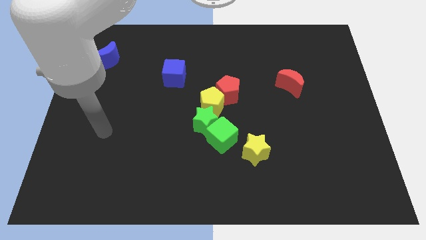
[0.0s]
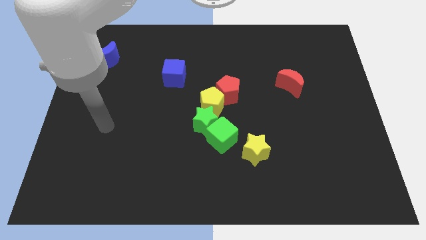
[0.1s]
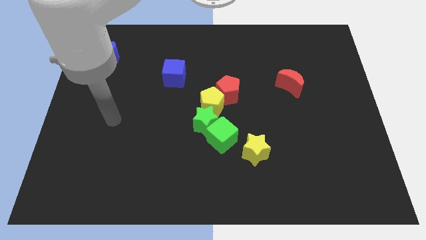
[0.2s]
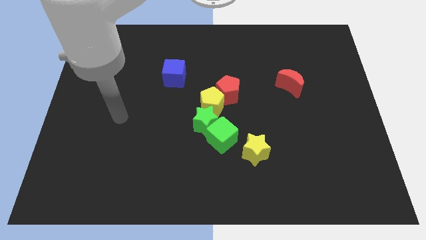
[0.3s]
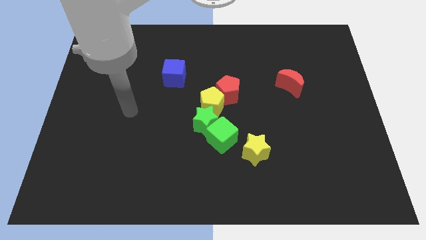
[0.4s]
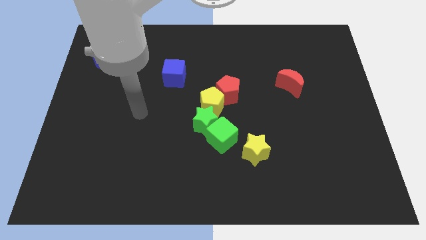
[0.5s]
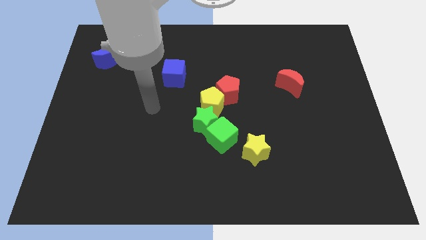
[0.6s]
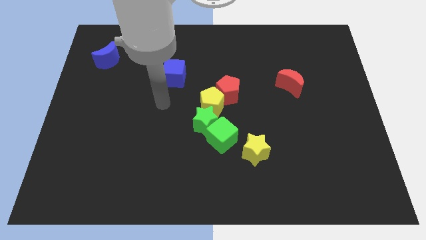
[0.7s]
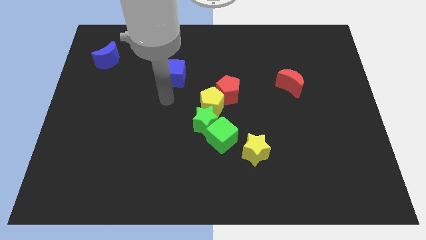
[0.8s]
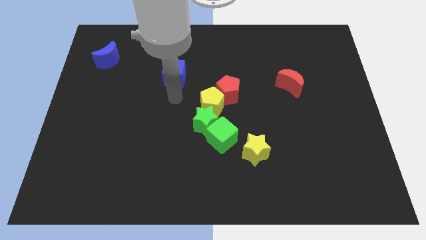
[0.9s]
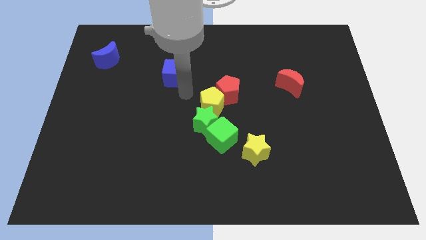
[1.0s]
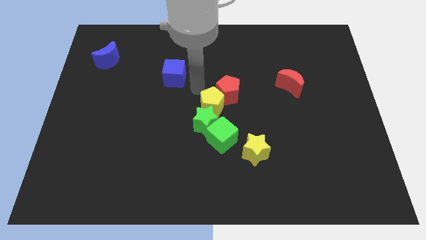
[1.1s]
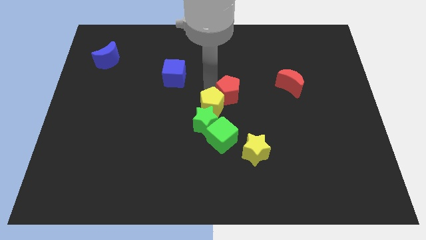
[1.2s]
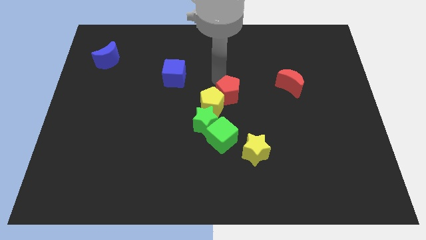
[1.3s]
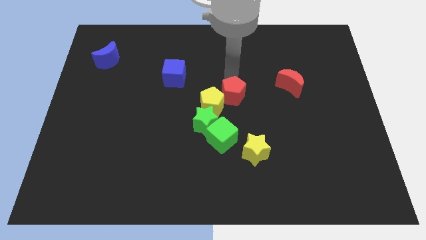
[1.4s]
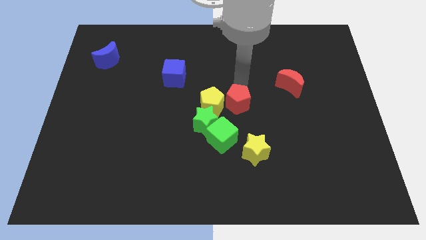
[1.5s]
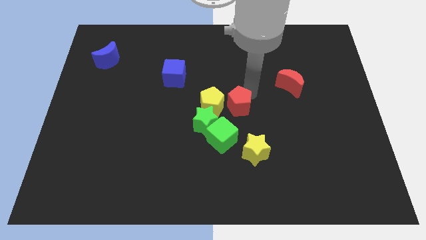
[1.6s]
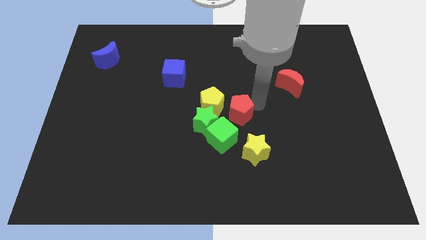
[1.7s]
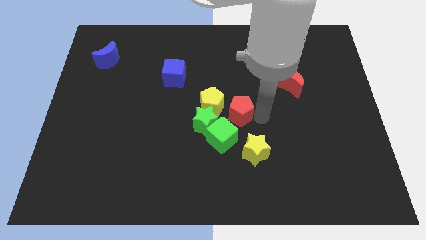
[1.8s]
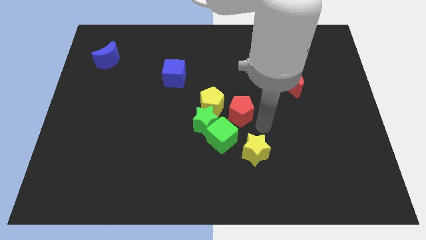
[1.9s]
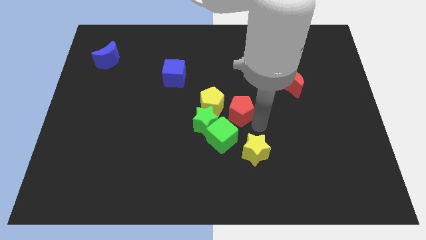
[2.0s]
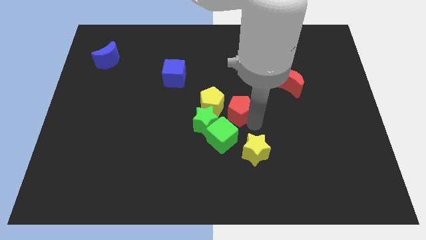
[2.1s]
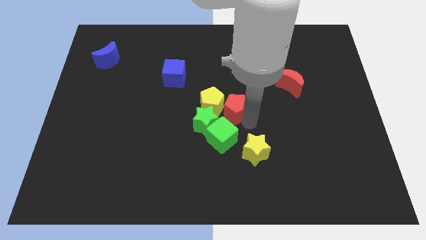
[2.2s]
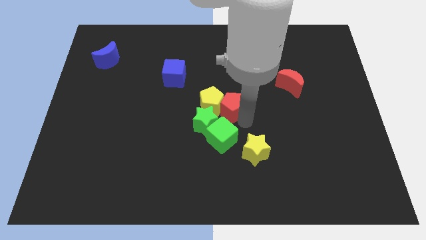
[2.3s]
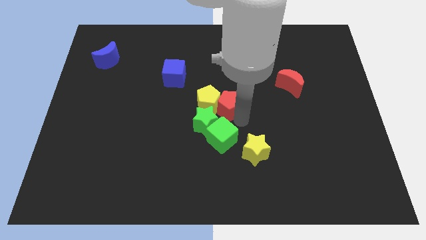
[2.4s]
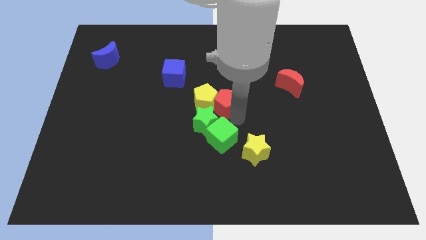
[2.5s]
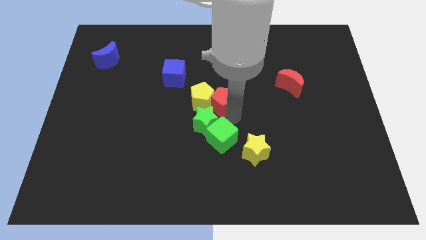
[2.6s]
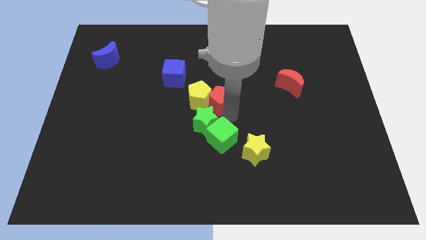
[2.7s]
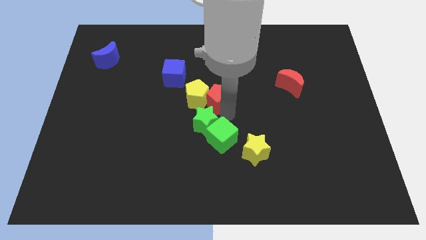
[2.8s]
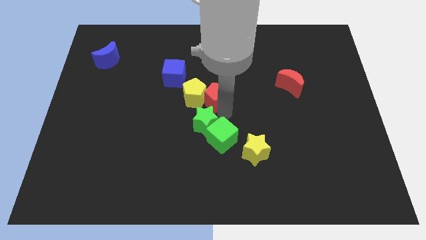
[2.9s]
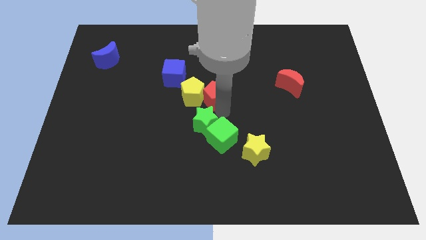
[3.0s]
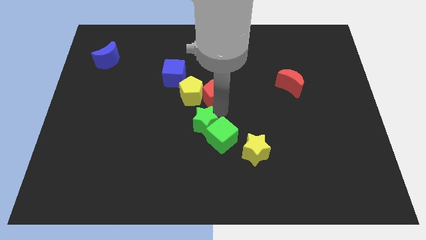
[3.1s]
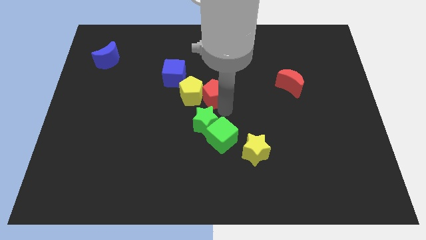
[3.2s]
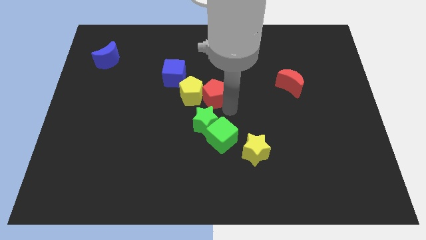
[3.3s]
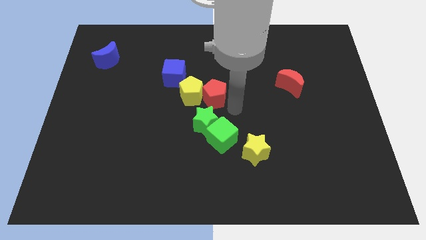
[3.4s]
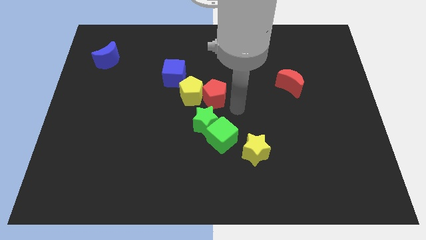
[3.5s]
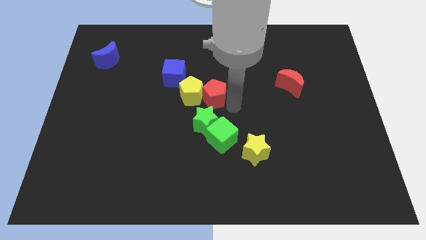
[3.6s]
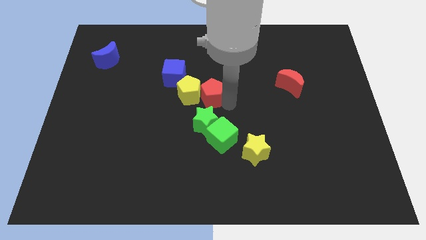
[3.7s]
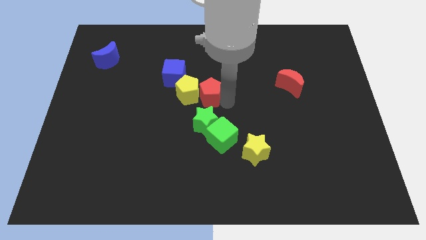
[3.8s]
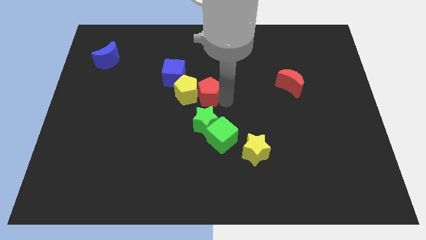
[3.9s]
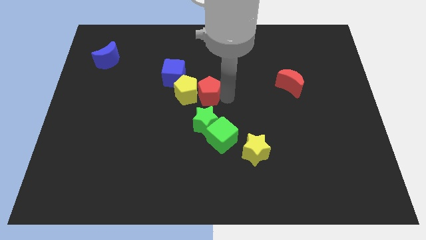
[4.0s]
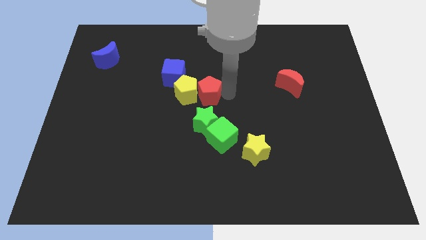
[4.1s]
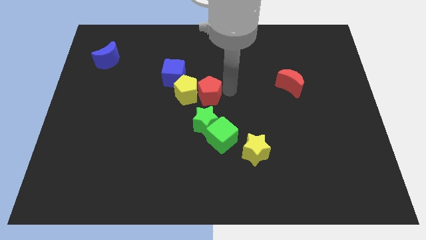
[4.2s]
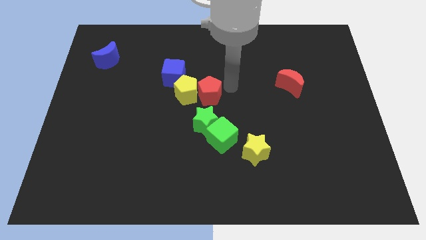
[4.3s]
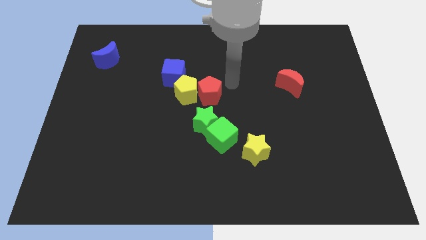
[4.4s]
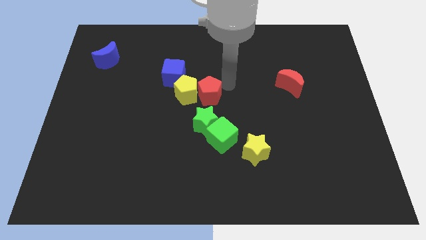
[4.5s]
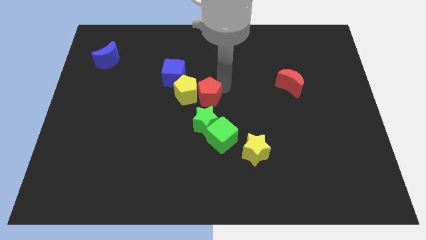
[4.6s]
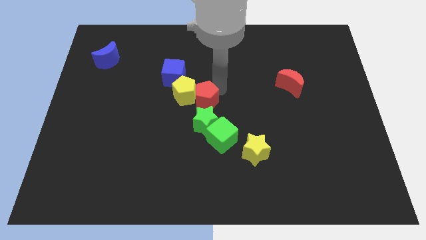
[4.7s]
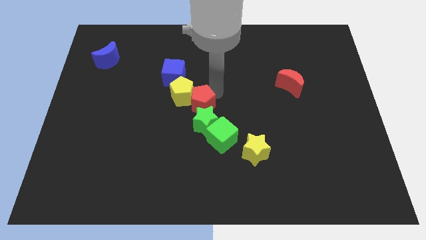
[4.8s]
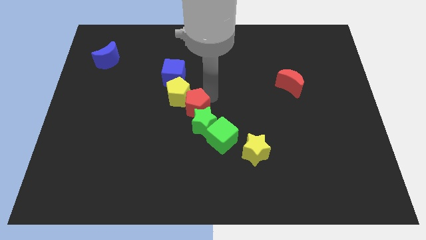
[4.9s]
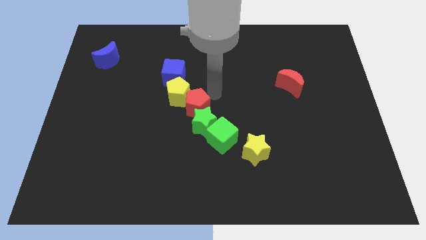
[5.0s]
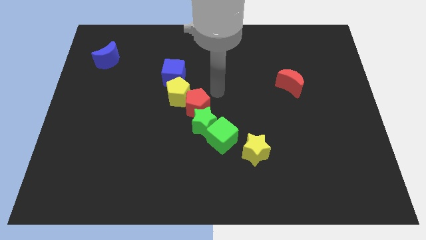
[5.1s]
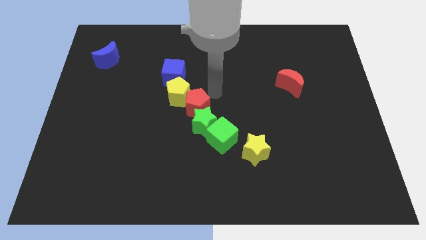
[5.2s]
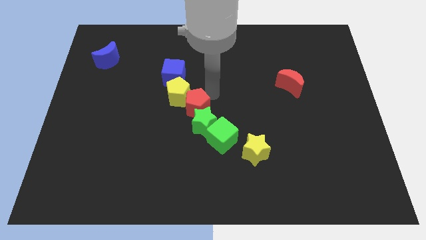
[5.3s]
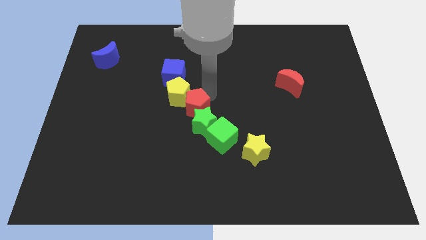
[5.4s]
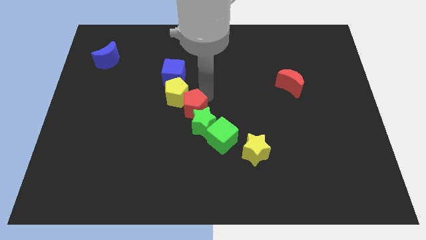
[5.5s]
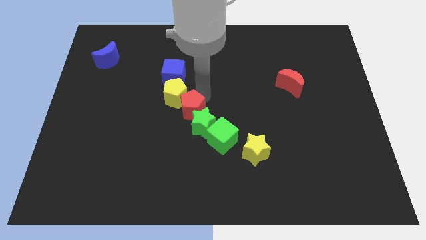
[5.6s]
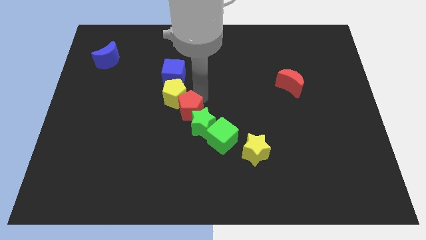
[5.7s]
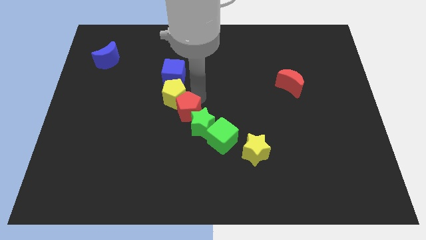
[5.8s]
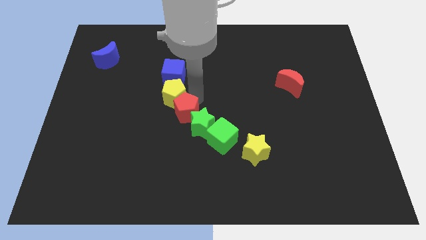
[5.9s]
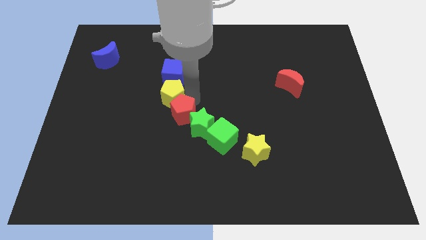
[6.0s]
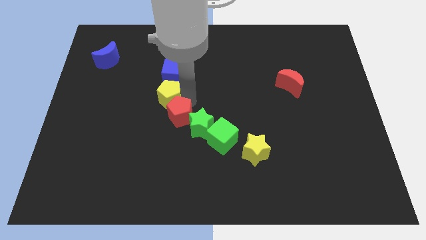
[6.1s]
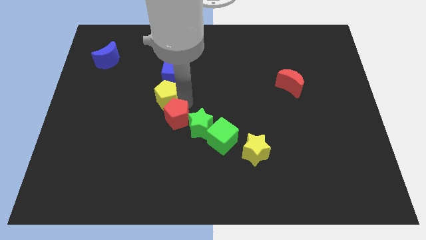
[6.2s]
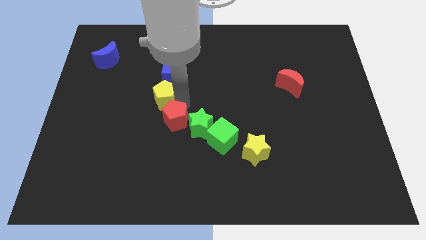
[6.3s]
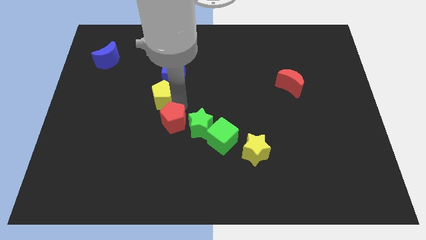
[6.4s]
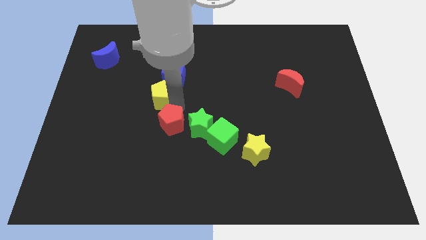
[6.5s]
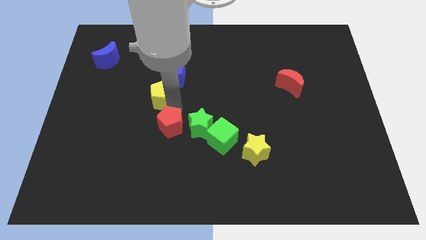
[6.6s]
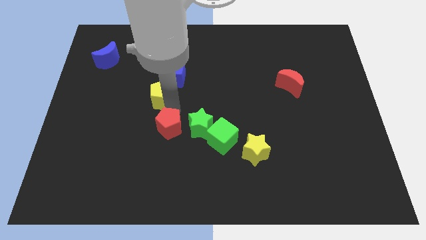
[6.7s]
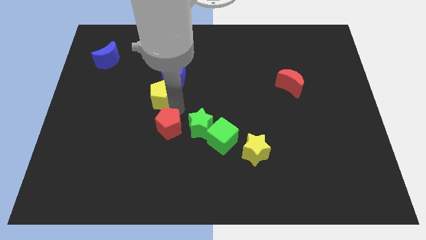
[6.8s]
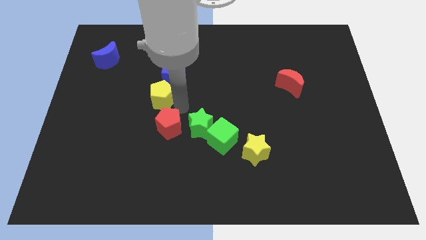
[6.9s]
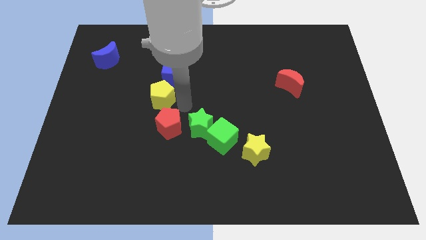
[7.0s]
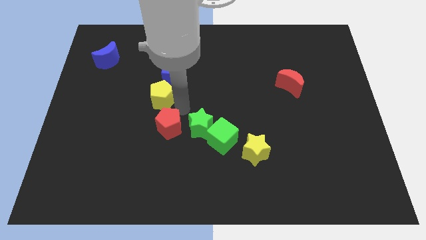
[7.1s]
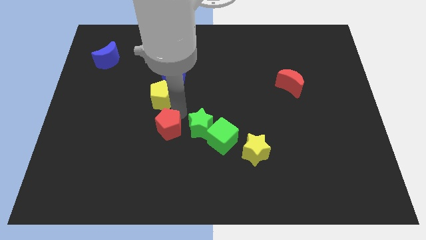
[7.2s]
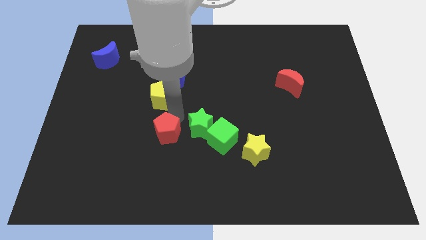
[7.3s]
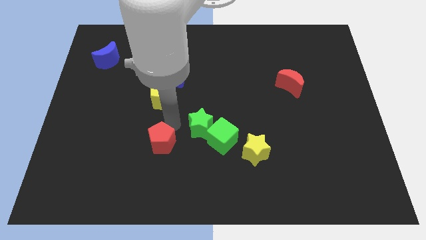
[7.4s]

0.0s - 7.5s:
slide the red pentagon down and then to the left

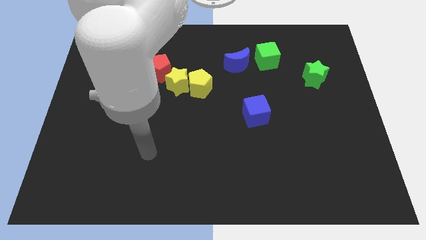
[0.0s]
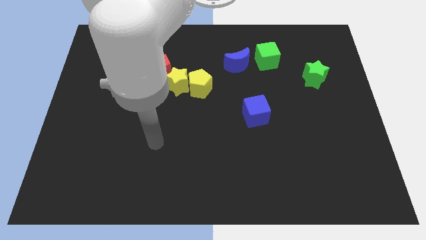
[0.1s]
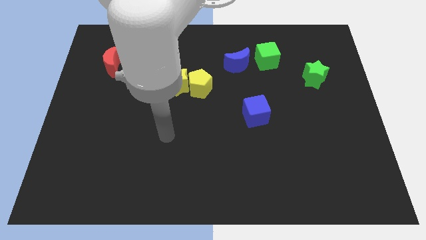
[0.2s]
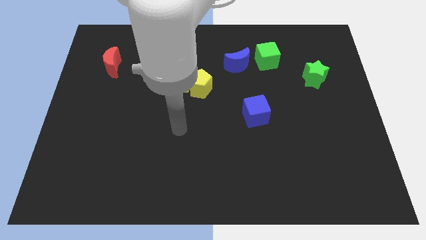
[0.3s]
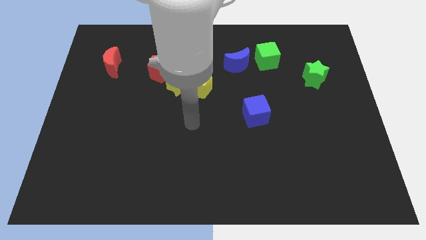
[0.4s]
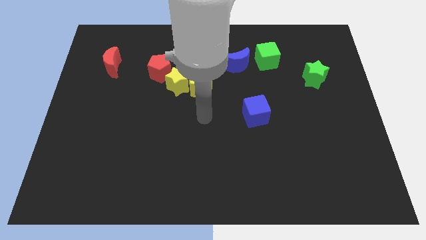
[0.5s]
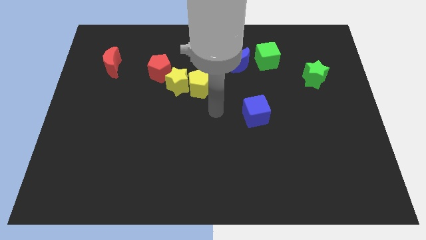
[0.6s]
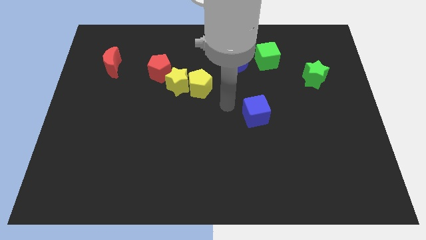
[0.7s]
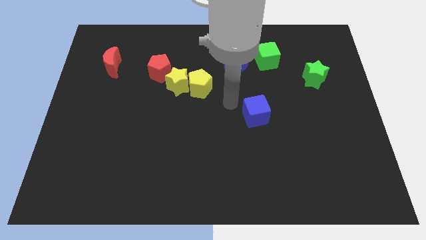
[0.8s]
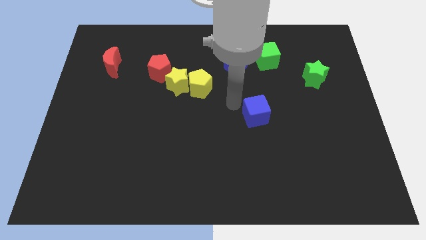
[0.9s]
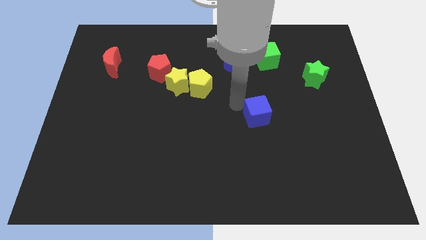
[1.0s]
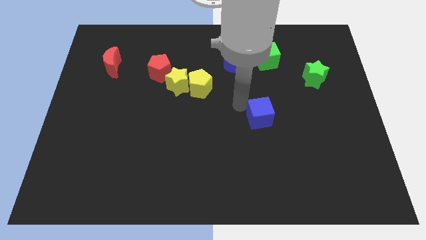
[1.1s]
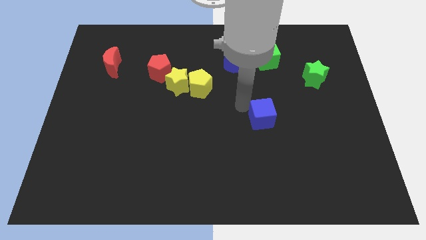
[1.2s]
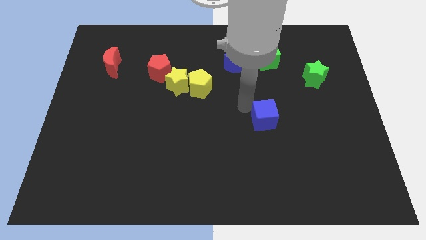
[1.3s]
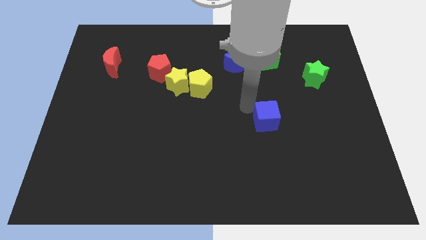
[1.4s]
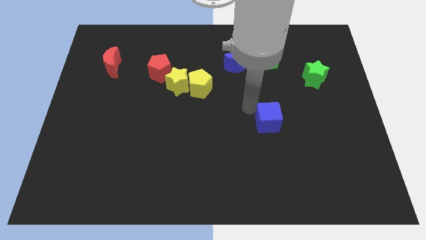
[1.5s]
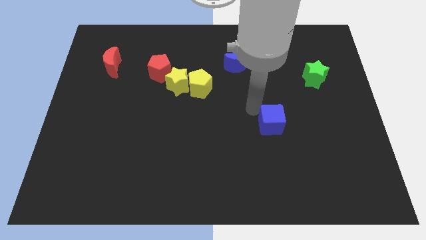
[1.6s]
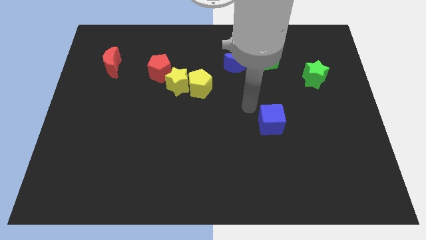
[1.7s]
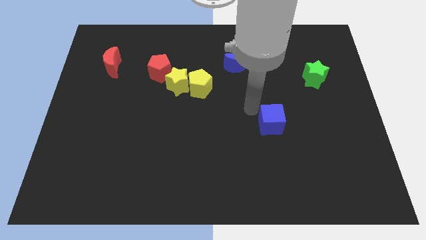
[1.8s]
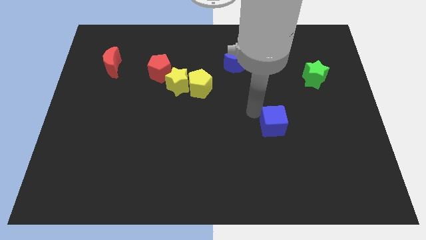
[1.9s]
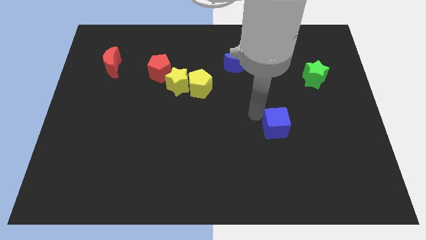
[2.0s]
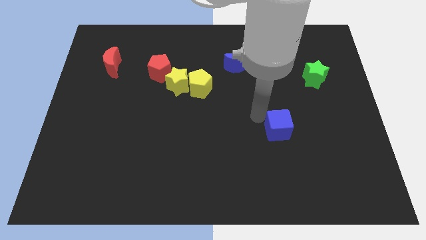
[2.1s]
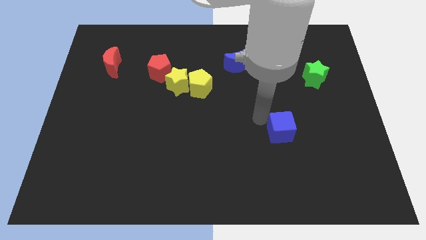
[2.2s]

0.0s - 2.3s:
slightly slide the blue cube downwards and to the right
